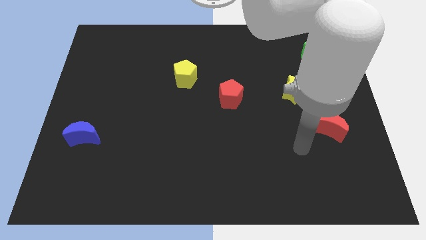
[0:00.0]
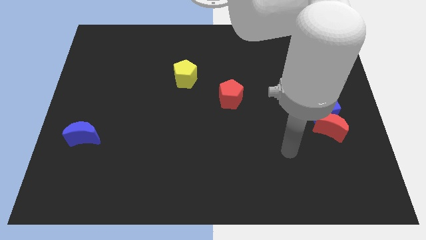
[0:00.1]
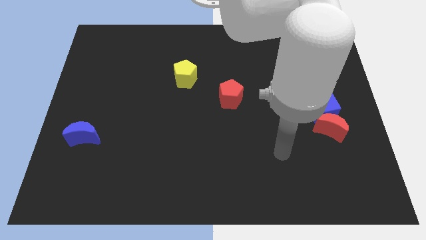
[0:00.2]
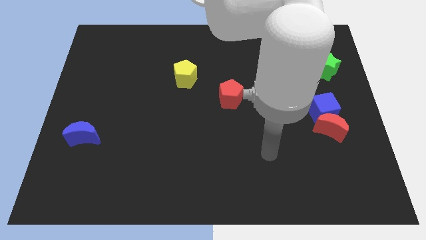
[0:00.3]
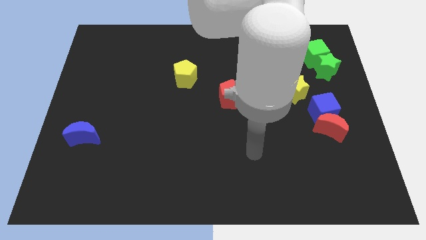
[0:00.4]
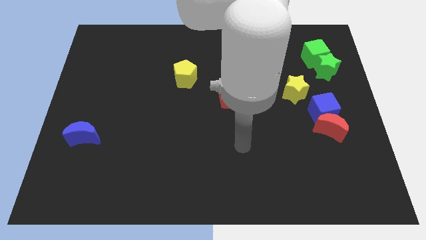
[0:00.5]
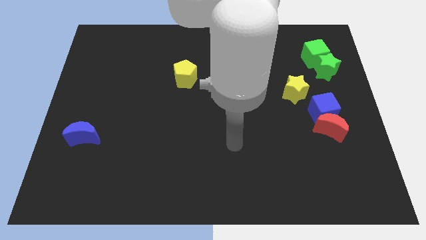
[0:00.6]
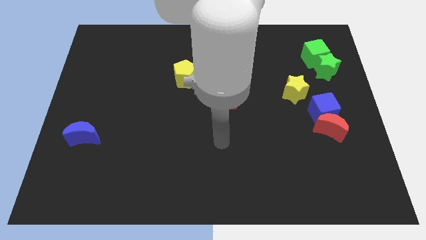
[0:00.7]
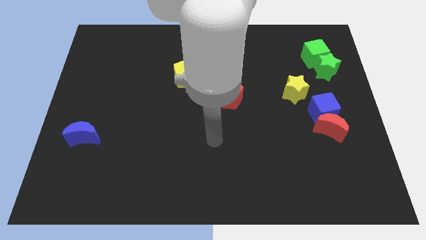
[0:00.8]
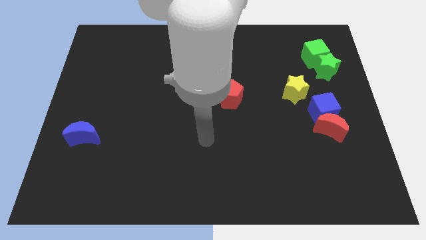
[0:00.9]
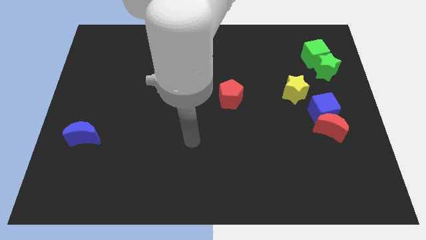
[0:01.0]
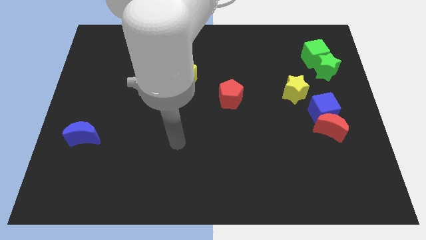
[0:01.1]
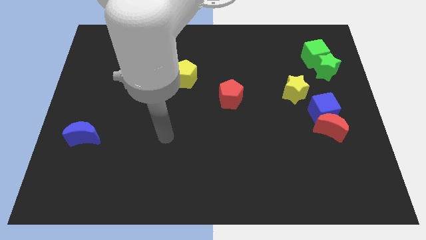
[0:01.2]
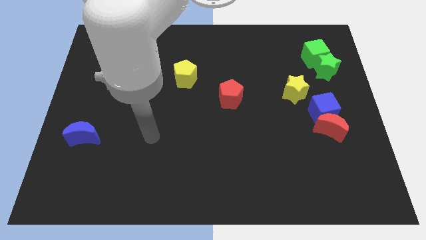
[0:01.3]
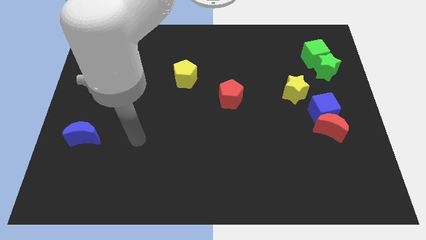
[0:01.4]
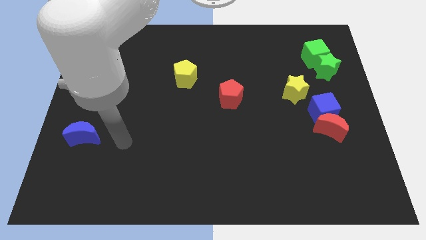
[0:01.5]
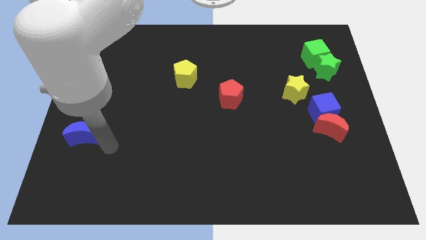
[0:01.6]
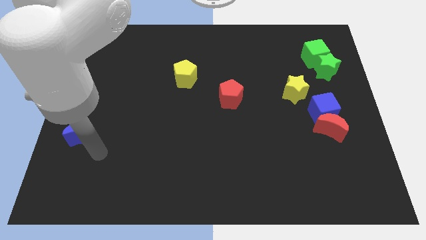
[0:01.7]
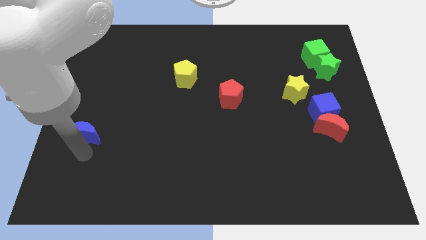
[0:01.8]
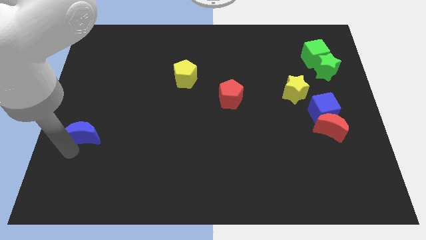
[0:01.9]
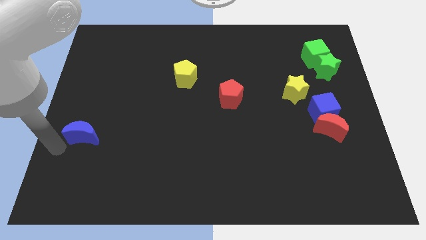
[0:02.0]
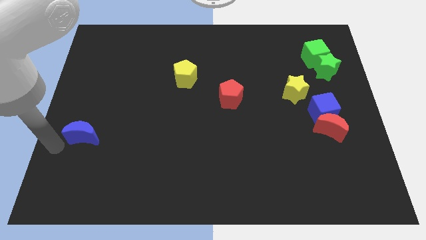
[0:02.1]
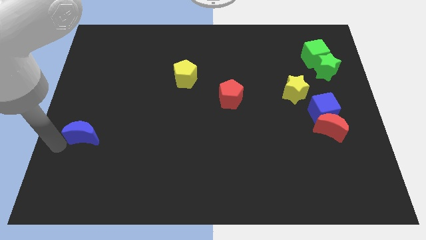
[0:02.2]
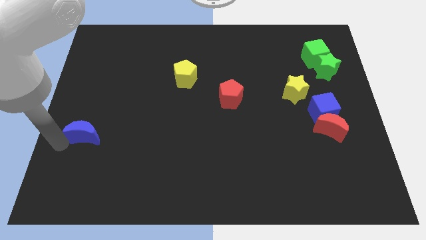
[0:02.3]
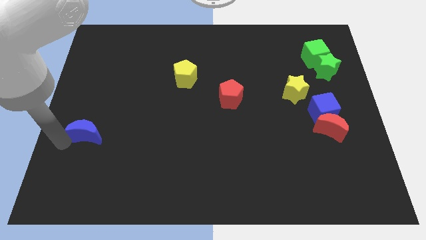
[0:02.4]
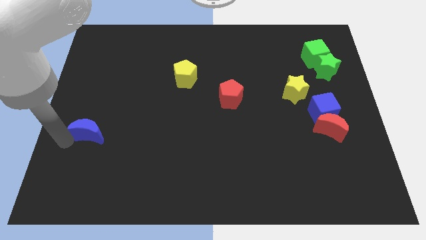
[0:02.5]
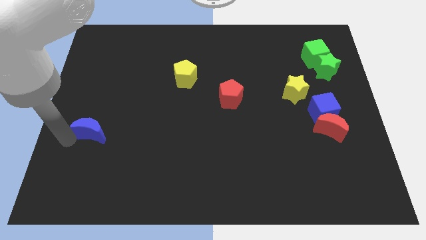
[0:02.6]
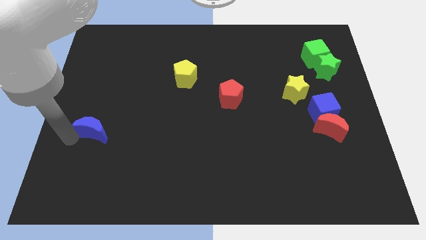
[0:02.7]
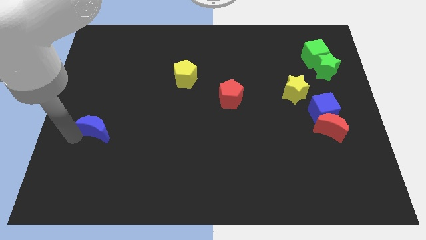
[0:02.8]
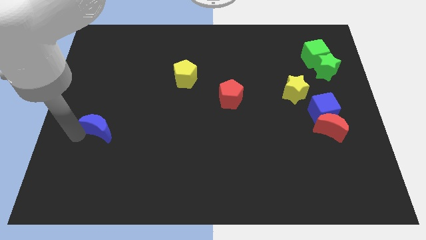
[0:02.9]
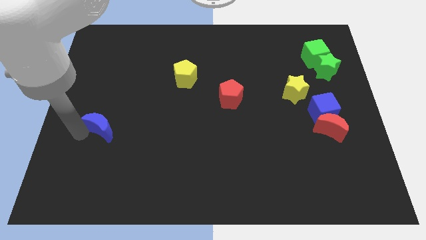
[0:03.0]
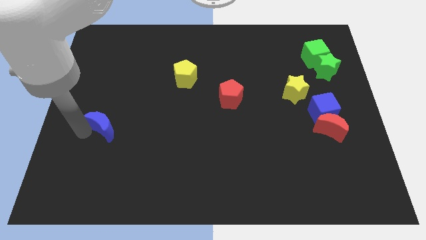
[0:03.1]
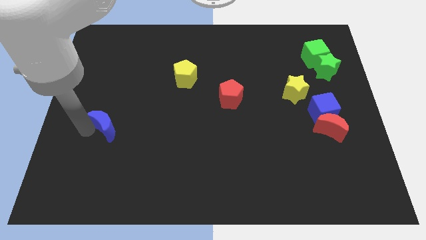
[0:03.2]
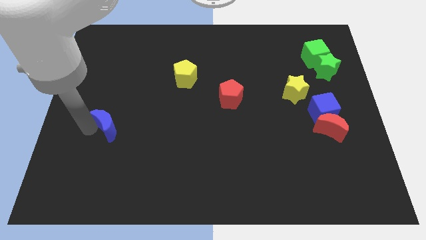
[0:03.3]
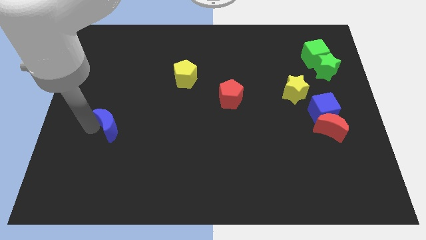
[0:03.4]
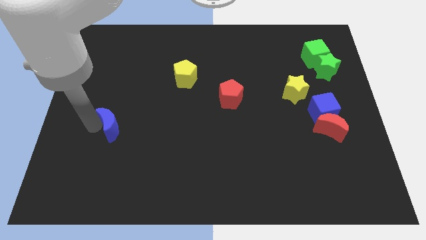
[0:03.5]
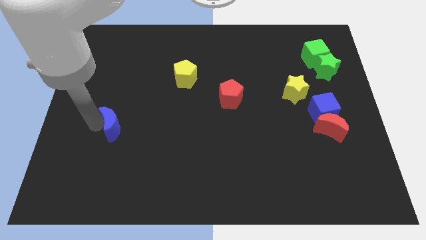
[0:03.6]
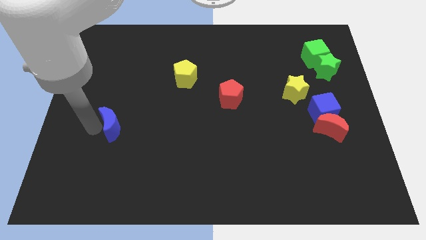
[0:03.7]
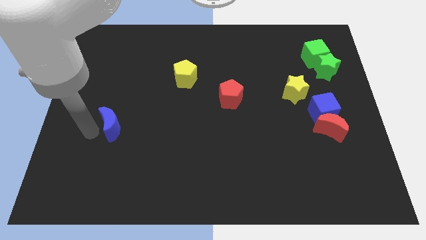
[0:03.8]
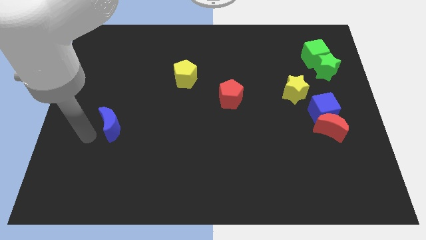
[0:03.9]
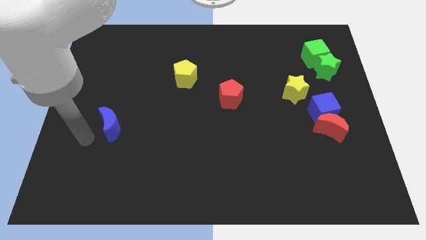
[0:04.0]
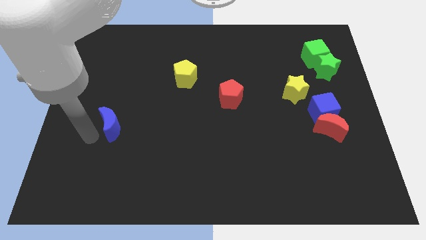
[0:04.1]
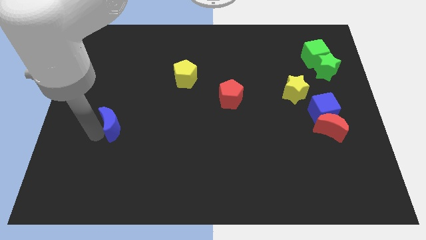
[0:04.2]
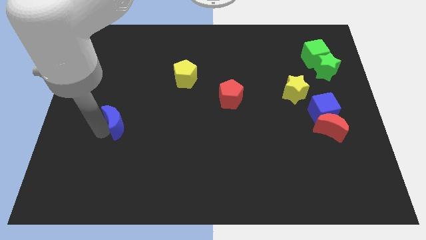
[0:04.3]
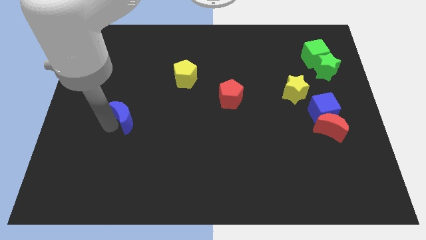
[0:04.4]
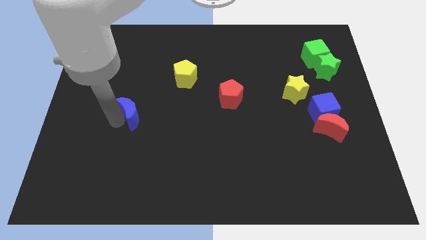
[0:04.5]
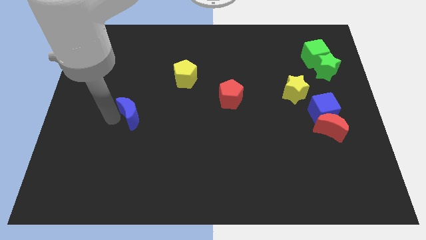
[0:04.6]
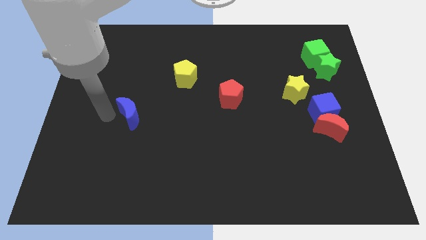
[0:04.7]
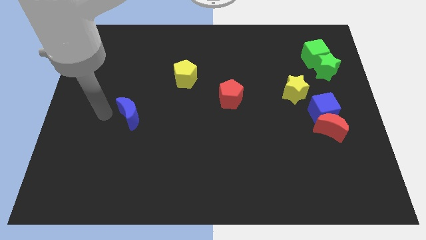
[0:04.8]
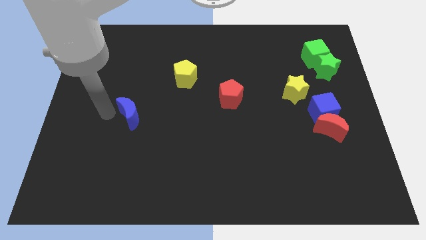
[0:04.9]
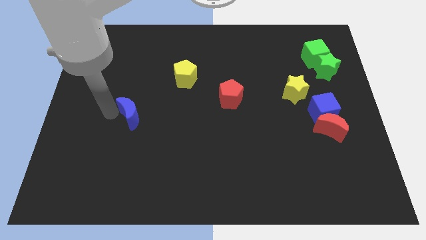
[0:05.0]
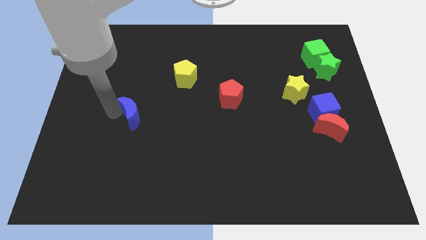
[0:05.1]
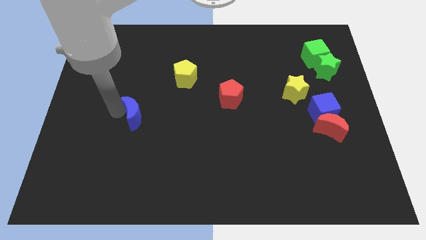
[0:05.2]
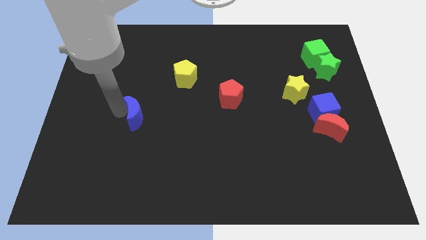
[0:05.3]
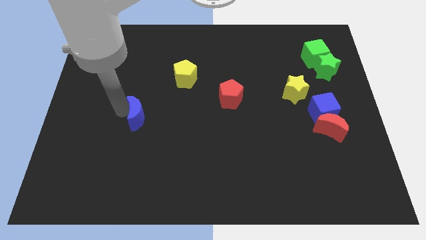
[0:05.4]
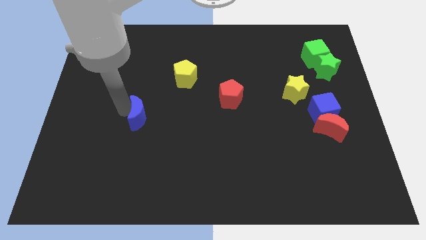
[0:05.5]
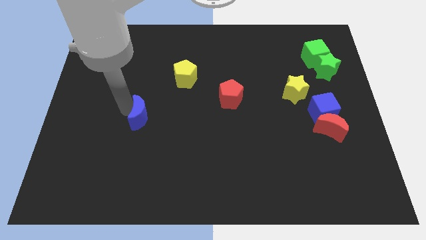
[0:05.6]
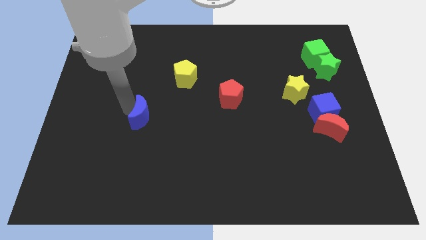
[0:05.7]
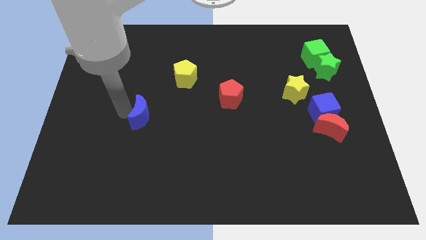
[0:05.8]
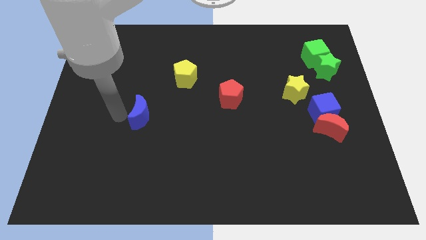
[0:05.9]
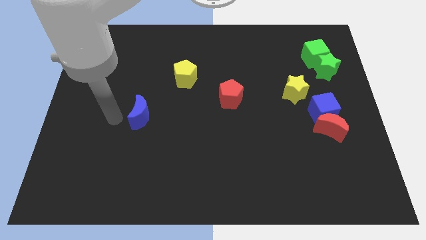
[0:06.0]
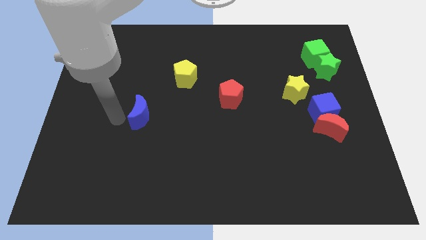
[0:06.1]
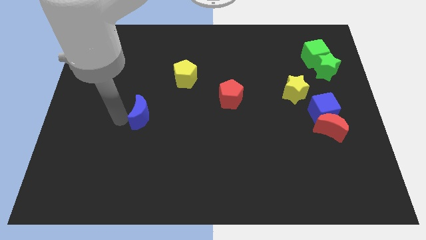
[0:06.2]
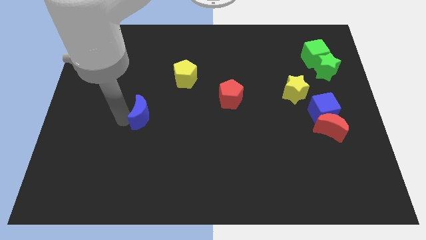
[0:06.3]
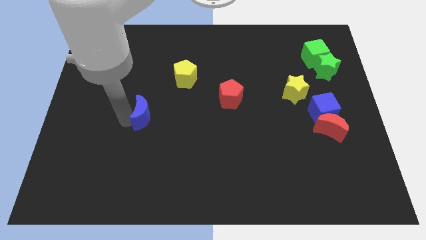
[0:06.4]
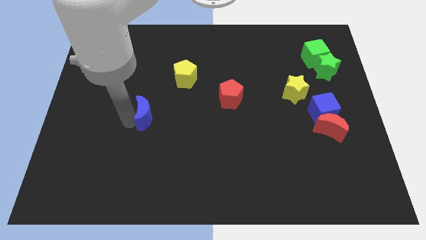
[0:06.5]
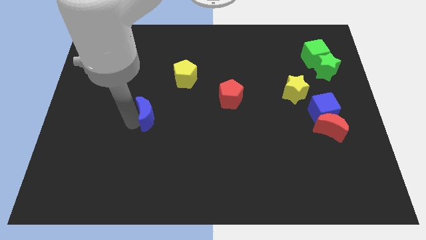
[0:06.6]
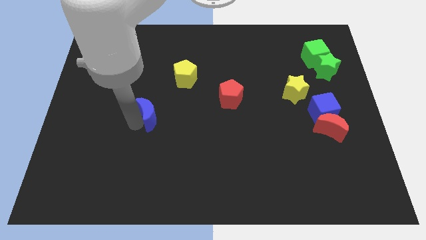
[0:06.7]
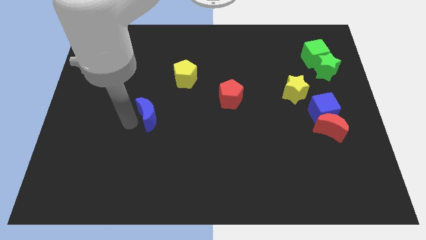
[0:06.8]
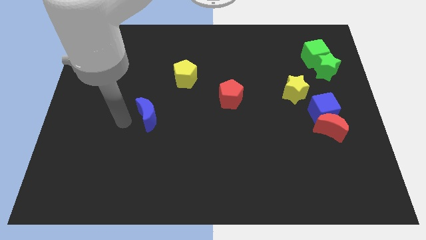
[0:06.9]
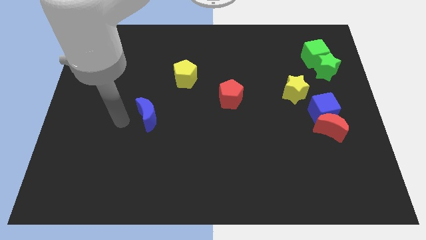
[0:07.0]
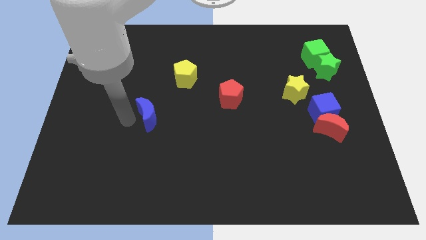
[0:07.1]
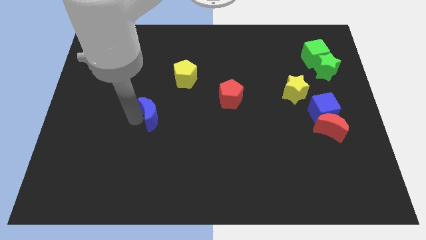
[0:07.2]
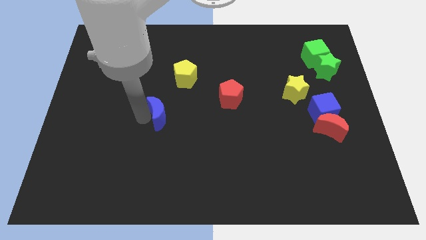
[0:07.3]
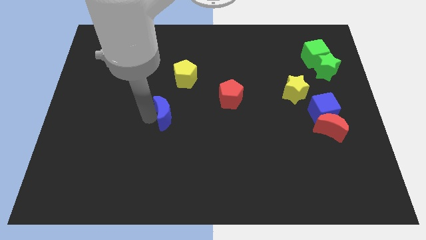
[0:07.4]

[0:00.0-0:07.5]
put the blue moon to the center of the board

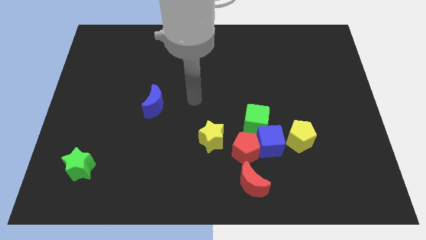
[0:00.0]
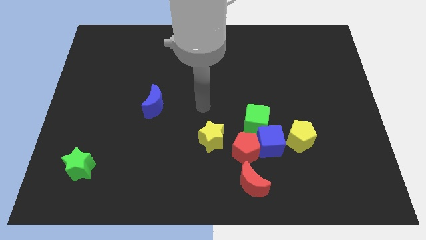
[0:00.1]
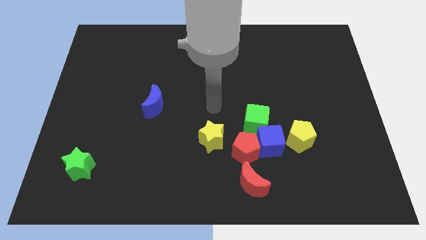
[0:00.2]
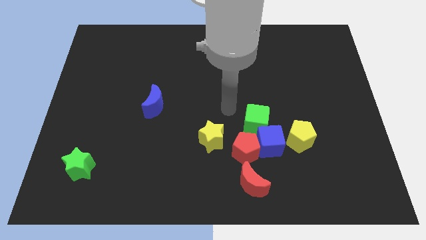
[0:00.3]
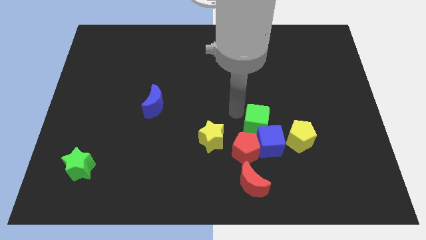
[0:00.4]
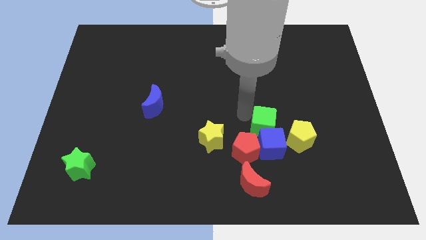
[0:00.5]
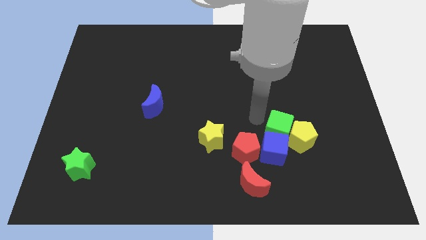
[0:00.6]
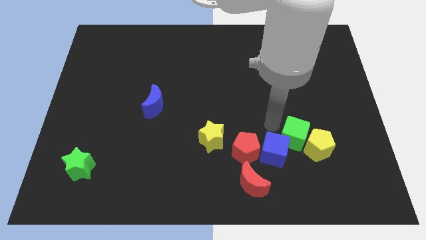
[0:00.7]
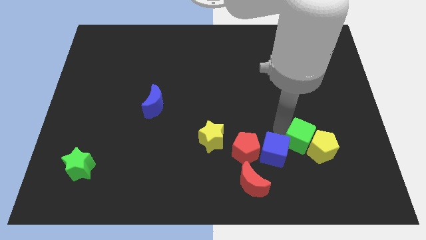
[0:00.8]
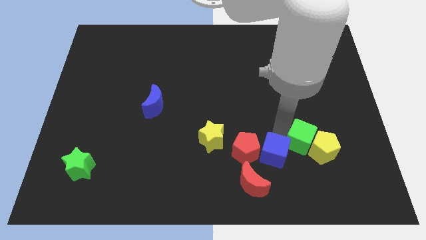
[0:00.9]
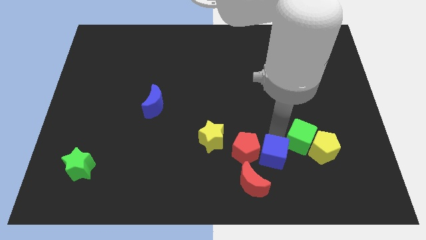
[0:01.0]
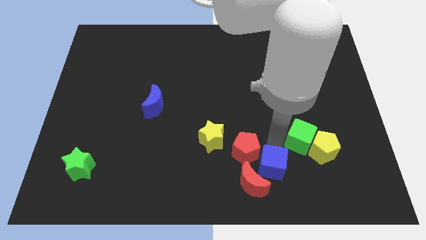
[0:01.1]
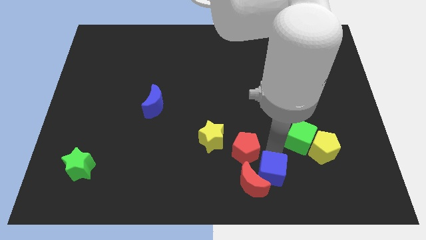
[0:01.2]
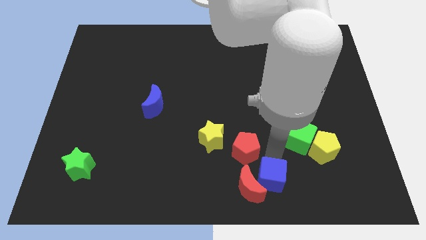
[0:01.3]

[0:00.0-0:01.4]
move the blue cube to the bottom side
